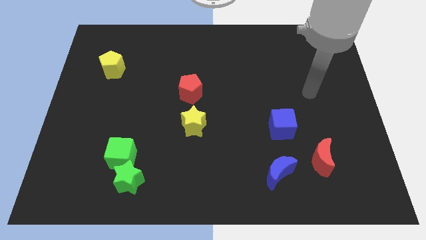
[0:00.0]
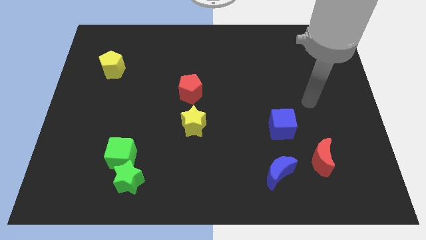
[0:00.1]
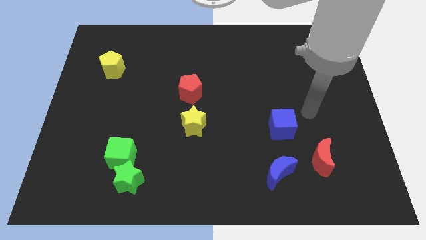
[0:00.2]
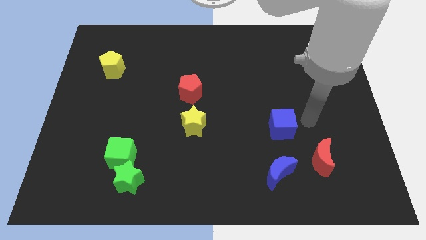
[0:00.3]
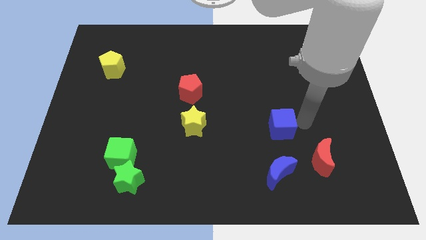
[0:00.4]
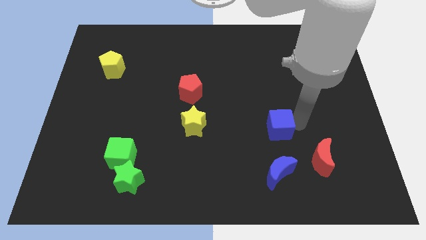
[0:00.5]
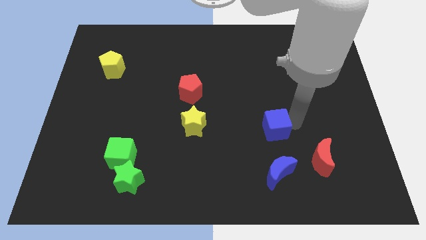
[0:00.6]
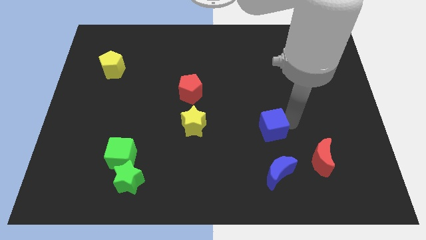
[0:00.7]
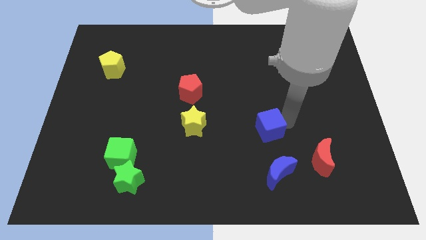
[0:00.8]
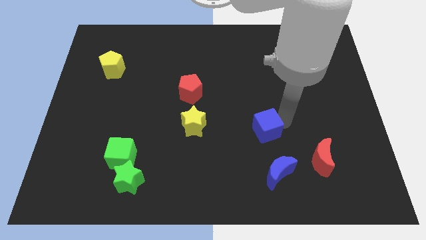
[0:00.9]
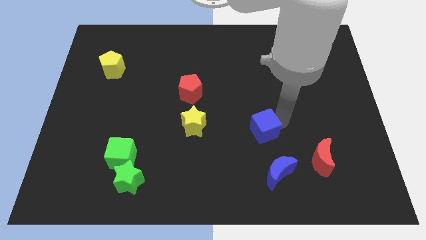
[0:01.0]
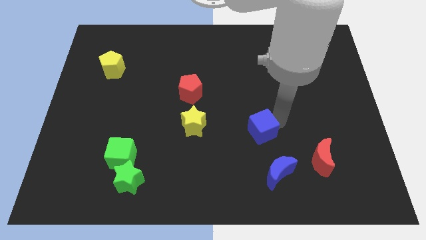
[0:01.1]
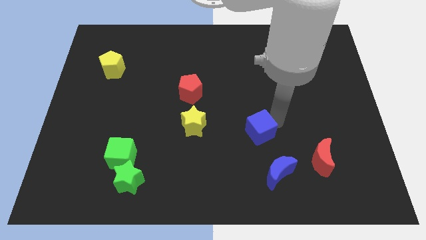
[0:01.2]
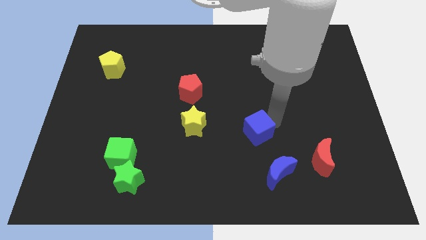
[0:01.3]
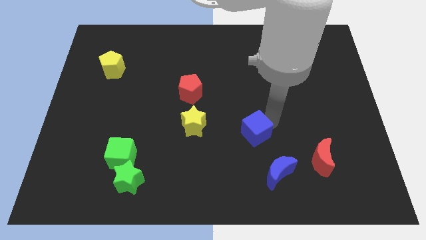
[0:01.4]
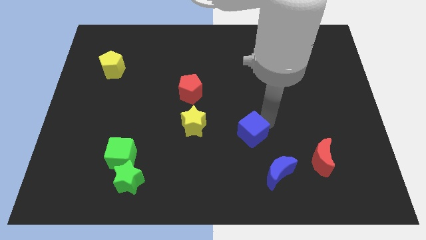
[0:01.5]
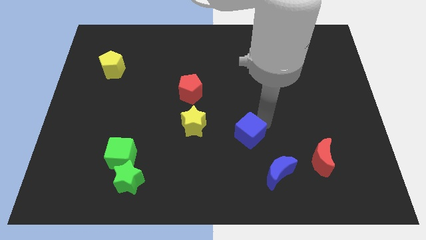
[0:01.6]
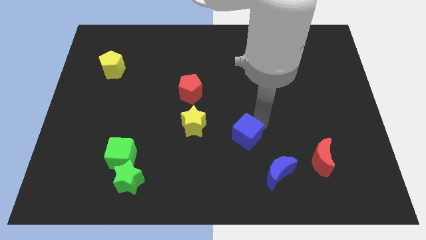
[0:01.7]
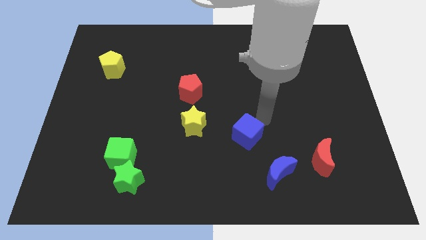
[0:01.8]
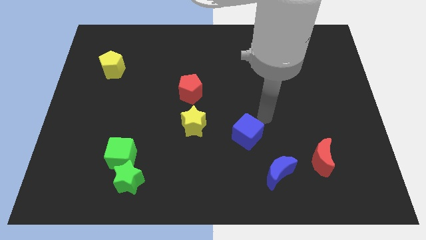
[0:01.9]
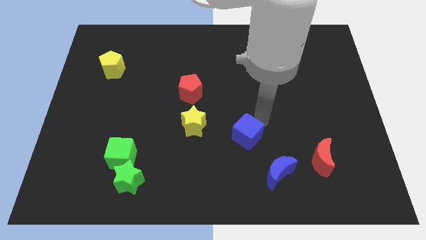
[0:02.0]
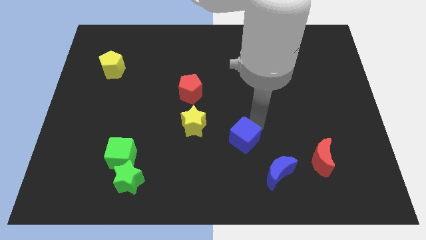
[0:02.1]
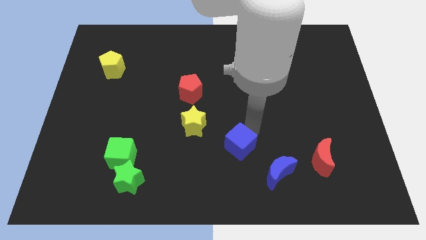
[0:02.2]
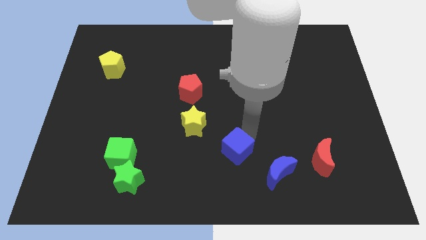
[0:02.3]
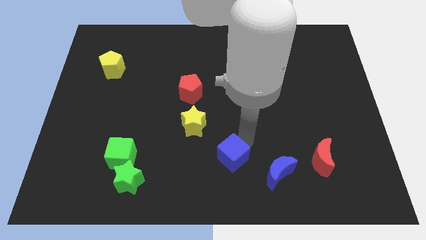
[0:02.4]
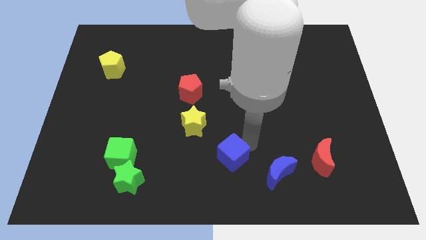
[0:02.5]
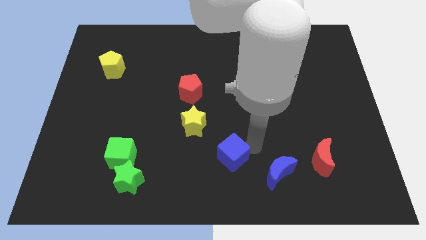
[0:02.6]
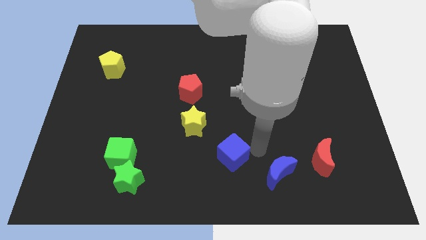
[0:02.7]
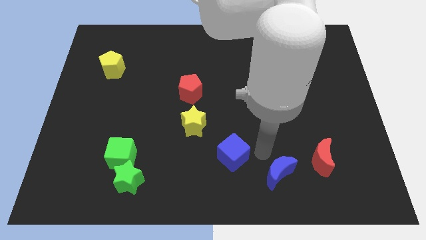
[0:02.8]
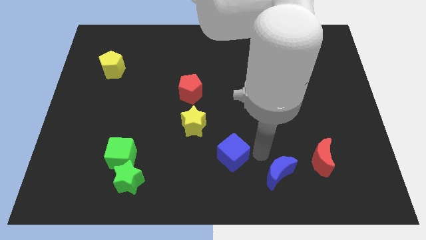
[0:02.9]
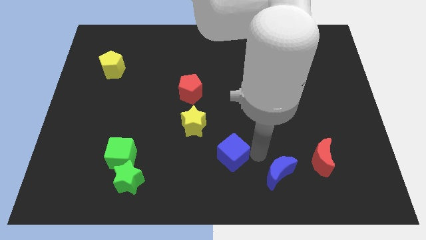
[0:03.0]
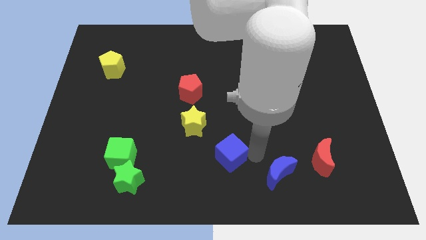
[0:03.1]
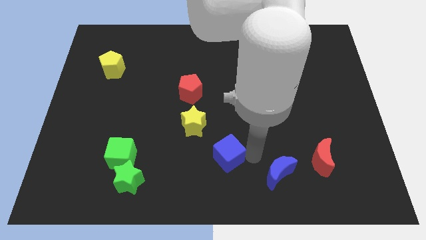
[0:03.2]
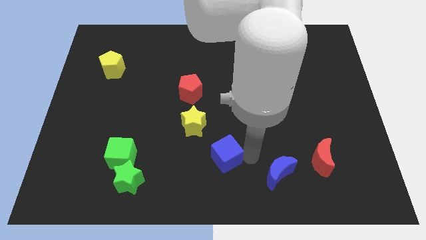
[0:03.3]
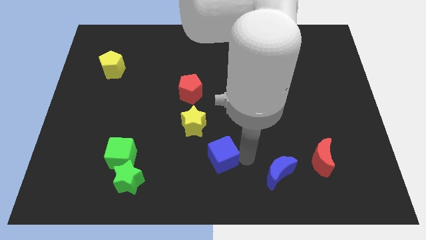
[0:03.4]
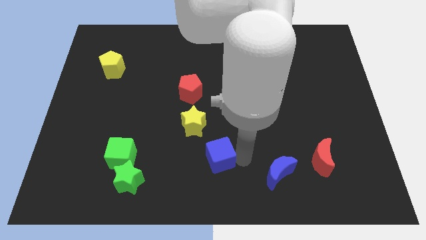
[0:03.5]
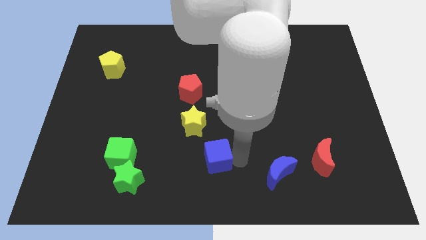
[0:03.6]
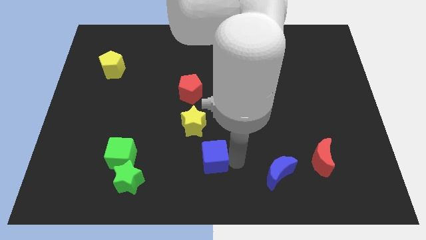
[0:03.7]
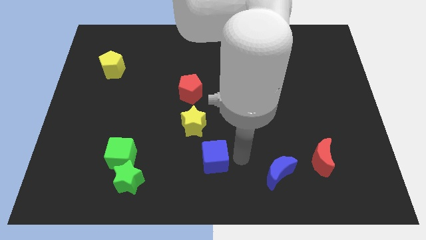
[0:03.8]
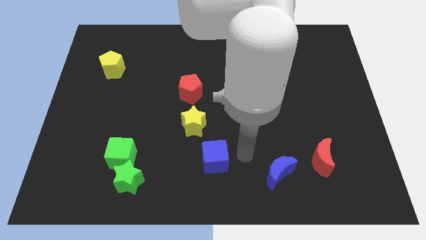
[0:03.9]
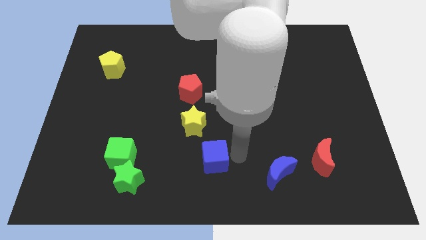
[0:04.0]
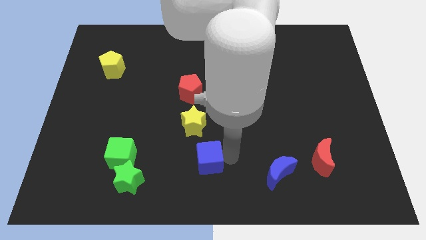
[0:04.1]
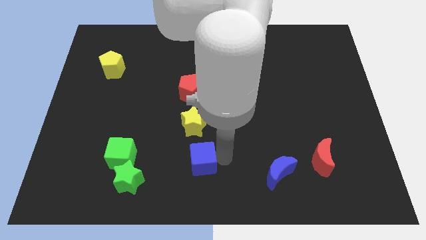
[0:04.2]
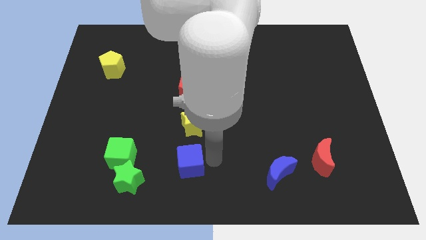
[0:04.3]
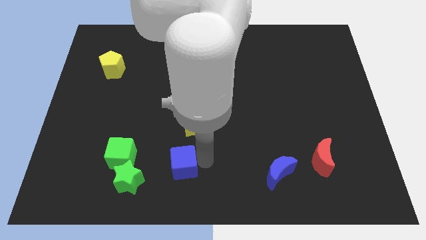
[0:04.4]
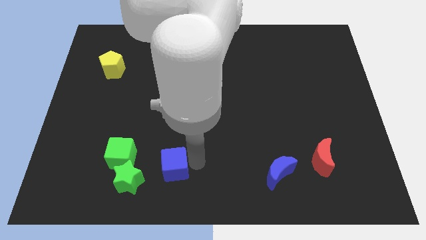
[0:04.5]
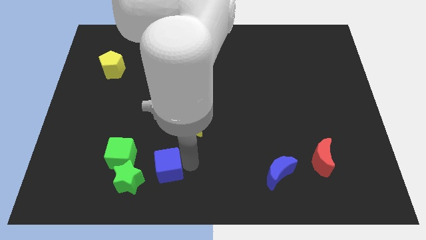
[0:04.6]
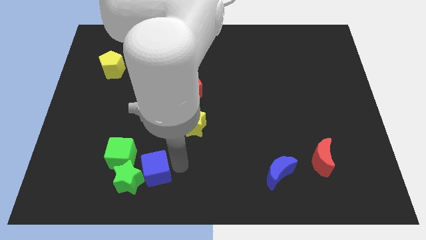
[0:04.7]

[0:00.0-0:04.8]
slide the blue cube close to the green star

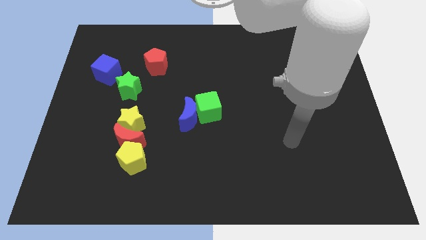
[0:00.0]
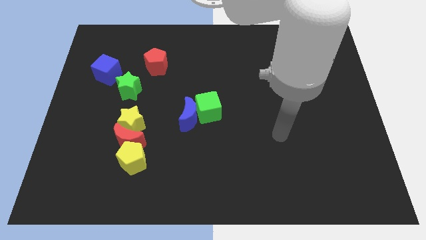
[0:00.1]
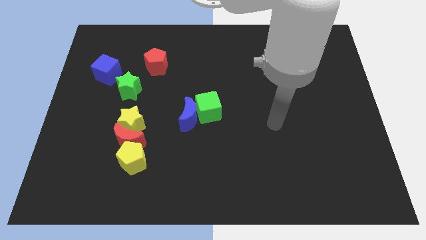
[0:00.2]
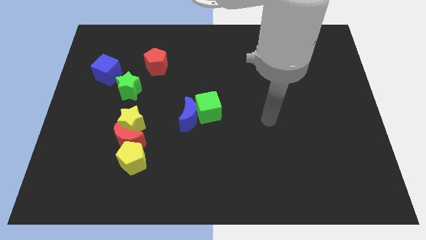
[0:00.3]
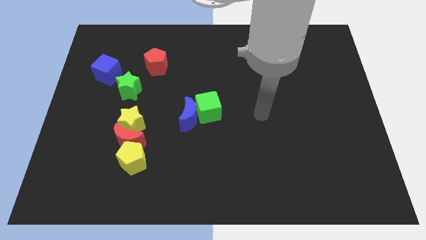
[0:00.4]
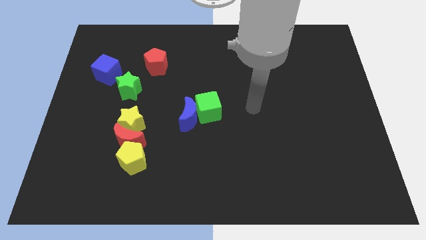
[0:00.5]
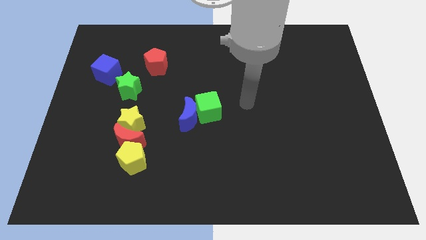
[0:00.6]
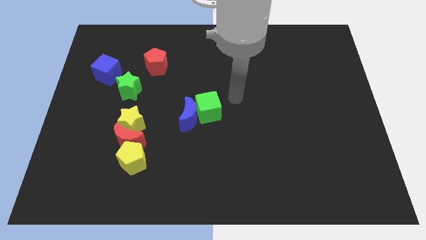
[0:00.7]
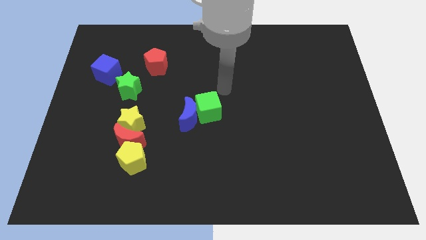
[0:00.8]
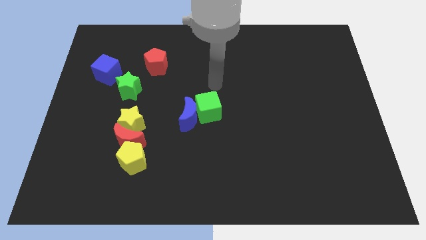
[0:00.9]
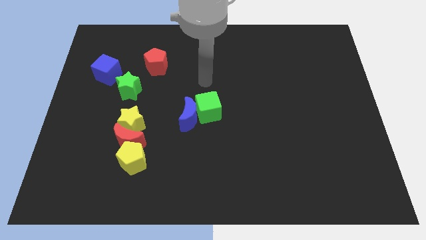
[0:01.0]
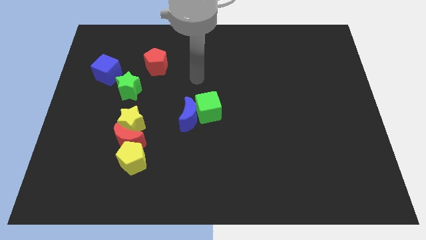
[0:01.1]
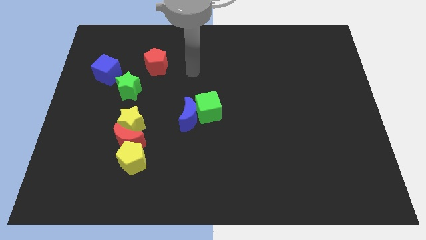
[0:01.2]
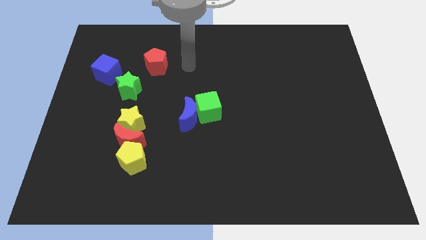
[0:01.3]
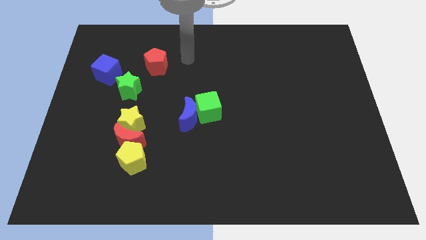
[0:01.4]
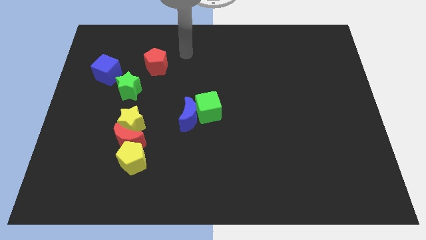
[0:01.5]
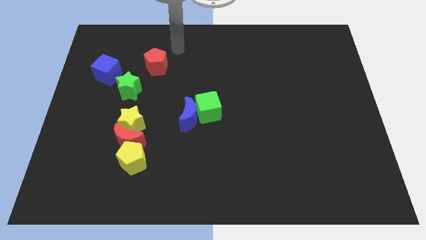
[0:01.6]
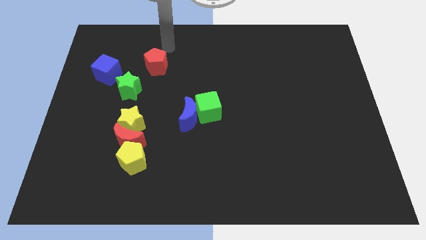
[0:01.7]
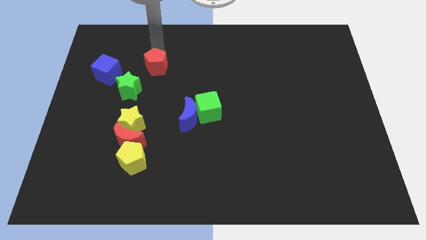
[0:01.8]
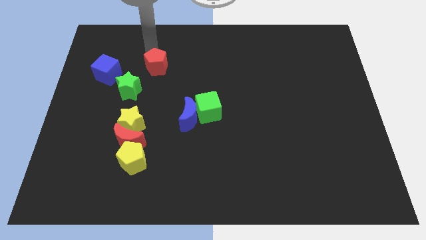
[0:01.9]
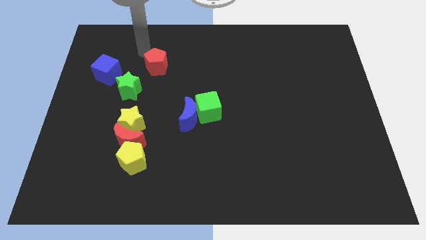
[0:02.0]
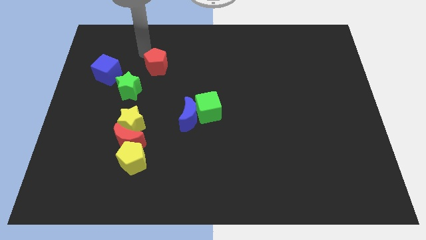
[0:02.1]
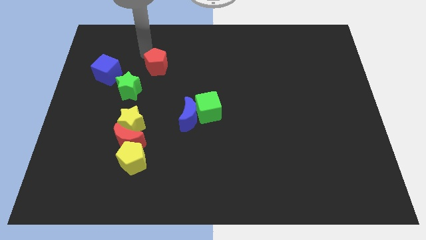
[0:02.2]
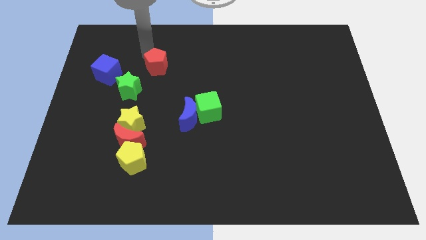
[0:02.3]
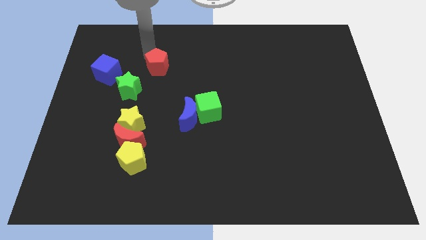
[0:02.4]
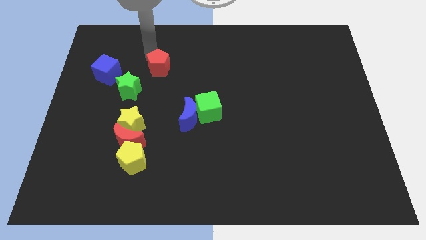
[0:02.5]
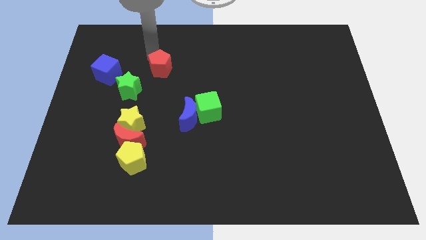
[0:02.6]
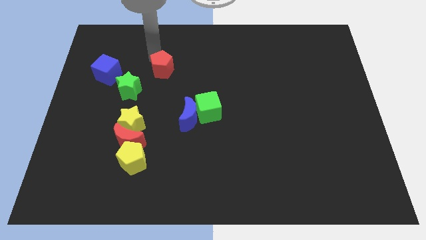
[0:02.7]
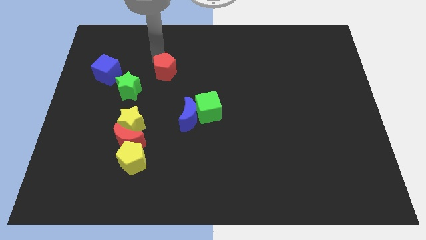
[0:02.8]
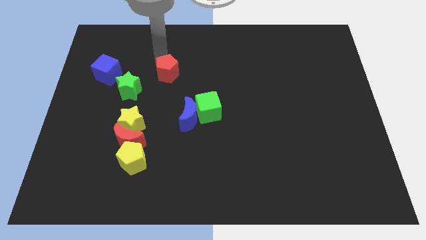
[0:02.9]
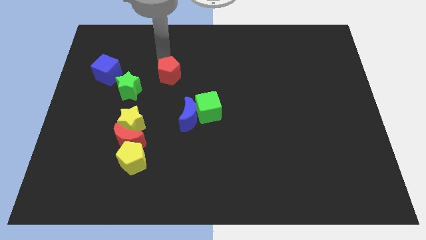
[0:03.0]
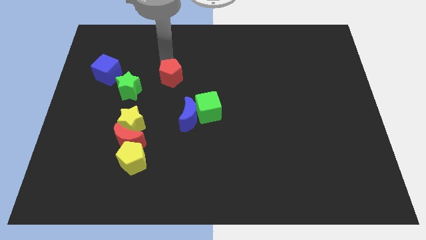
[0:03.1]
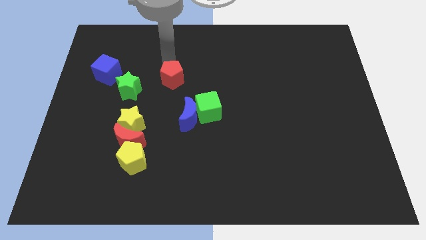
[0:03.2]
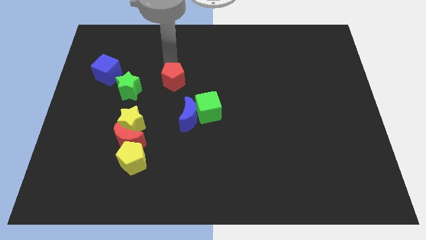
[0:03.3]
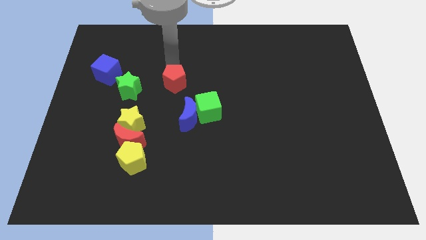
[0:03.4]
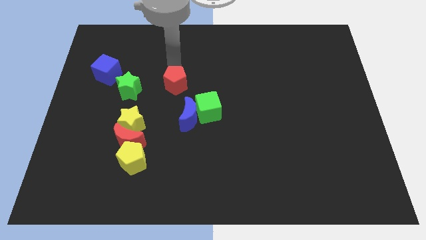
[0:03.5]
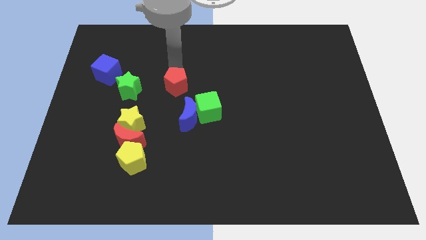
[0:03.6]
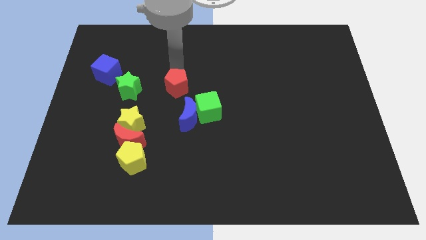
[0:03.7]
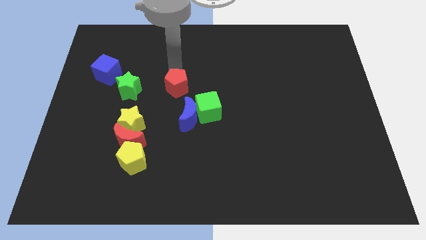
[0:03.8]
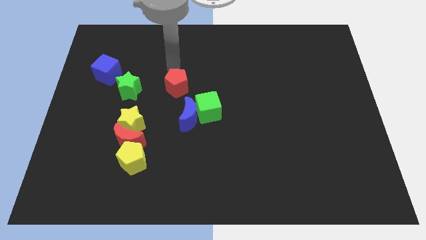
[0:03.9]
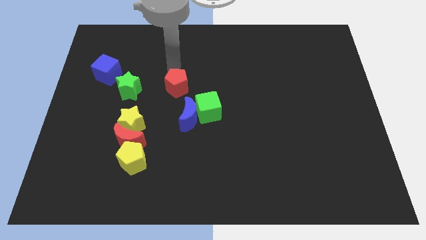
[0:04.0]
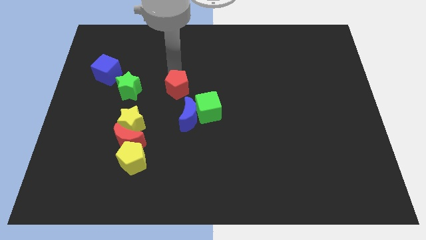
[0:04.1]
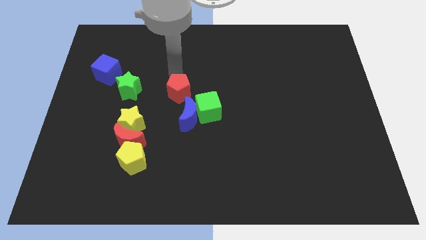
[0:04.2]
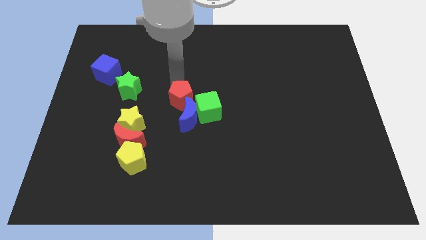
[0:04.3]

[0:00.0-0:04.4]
move the red pentagon to the blue moon
